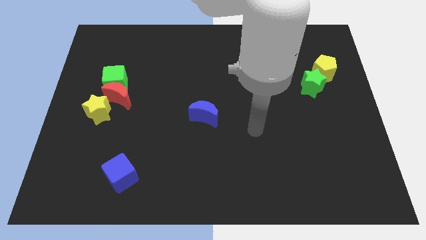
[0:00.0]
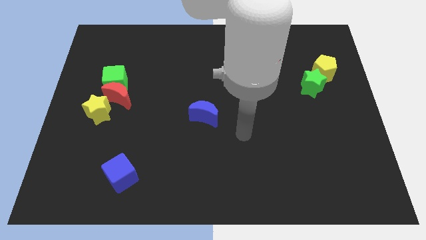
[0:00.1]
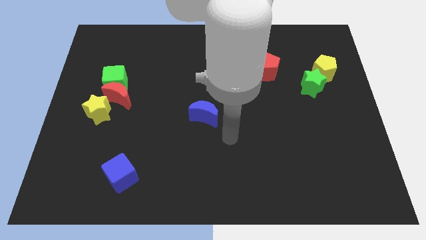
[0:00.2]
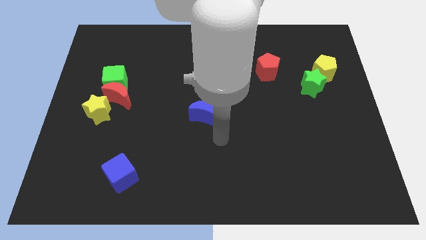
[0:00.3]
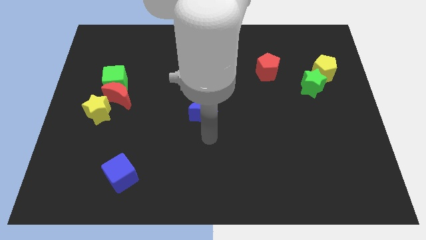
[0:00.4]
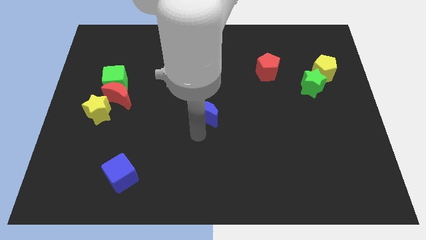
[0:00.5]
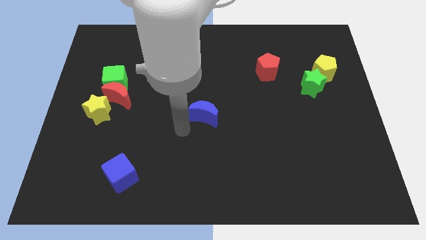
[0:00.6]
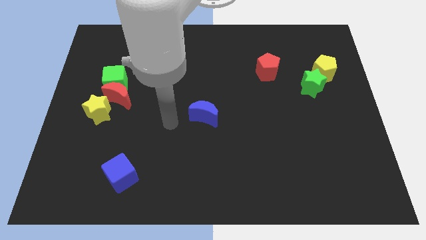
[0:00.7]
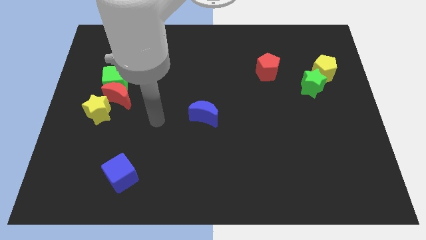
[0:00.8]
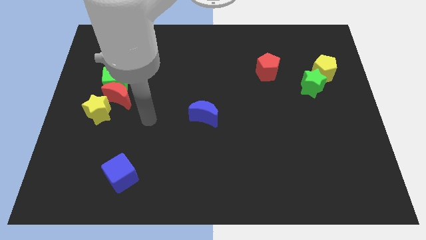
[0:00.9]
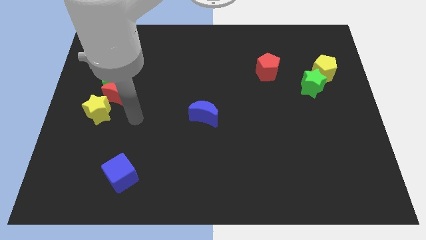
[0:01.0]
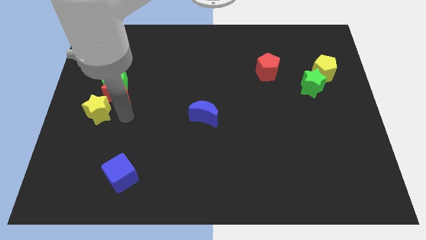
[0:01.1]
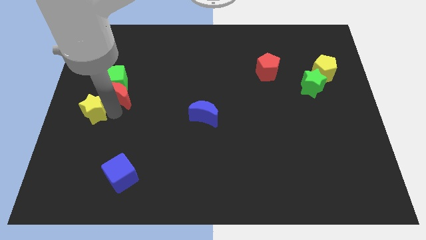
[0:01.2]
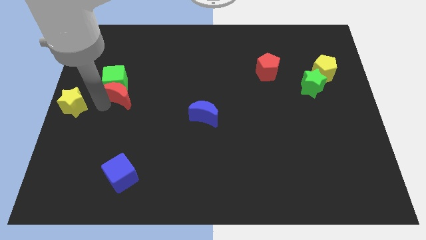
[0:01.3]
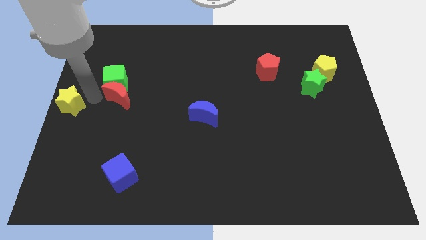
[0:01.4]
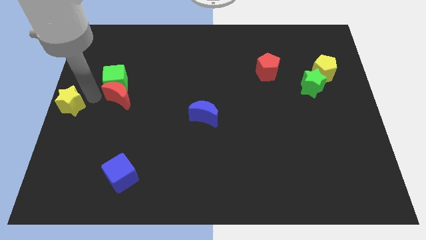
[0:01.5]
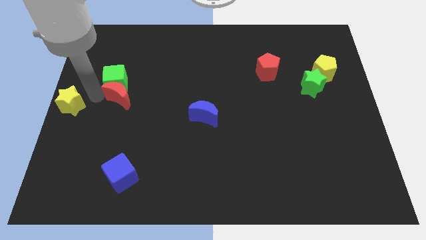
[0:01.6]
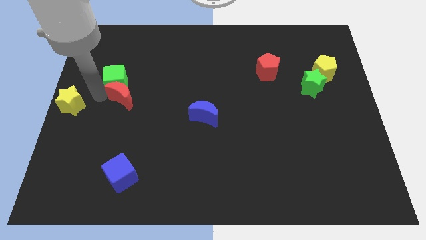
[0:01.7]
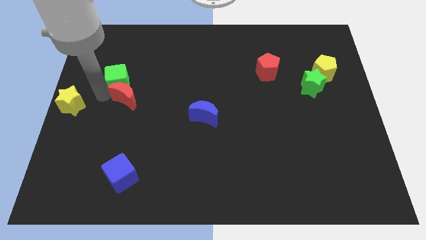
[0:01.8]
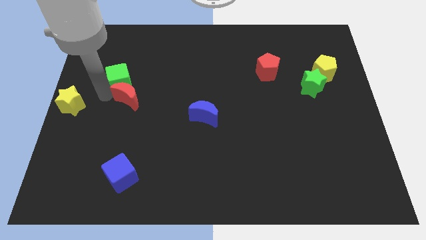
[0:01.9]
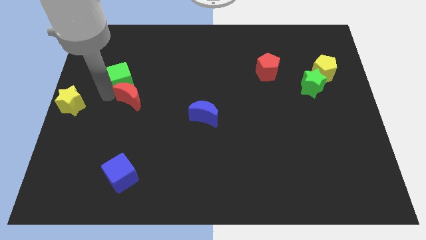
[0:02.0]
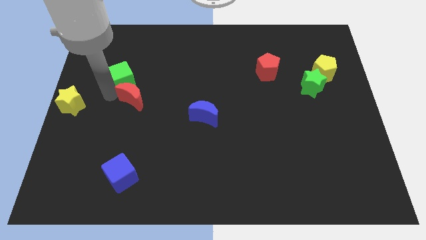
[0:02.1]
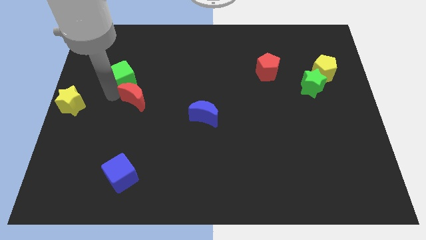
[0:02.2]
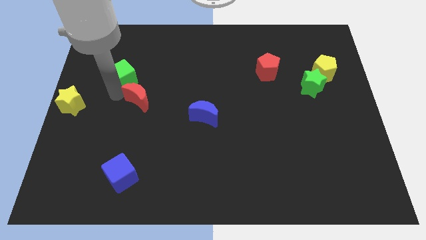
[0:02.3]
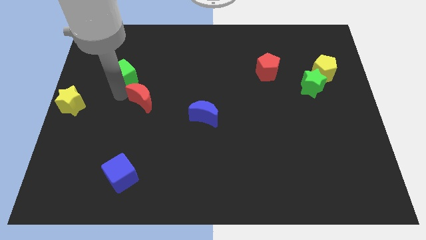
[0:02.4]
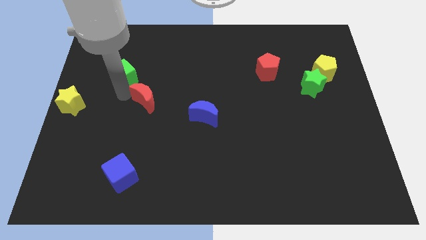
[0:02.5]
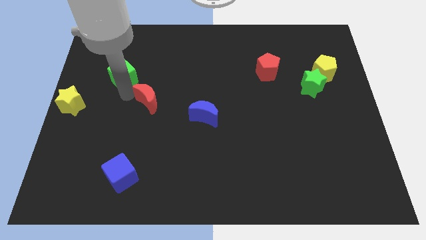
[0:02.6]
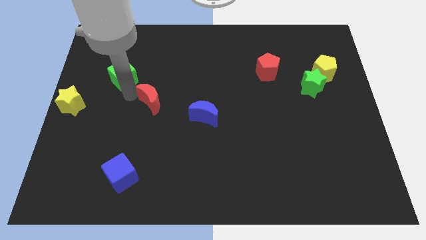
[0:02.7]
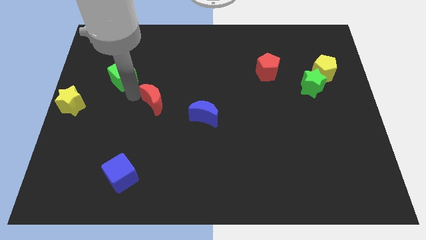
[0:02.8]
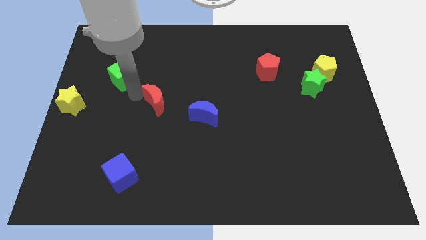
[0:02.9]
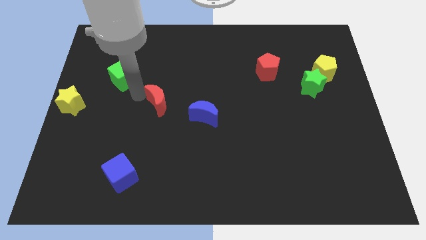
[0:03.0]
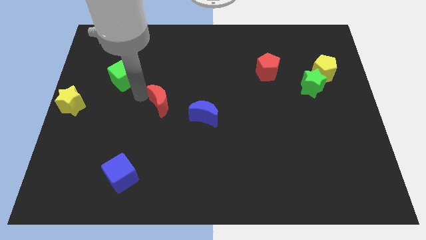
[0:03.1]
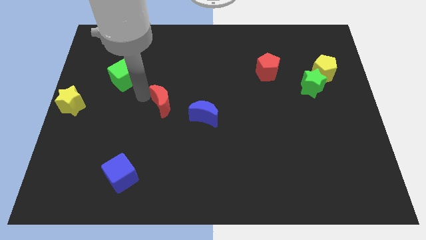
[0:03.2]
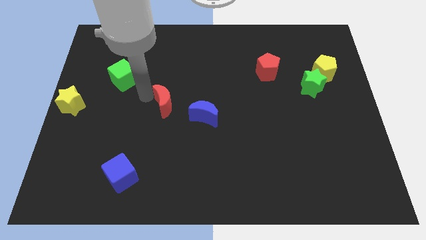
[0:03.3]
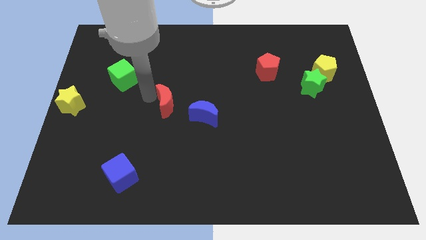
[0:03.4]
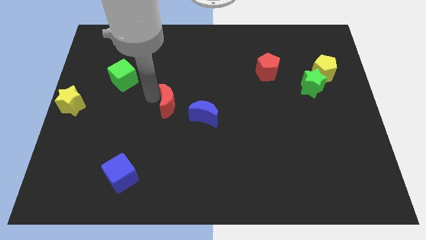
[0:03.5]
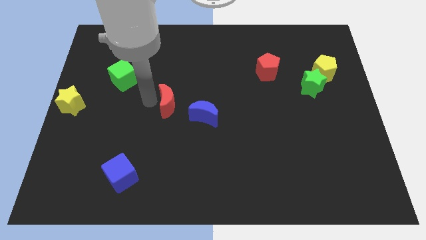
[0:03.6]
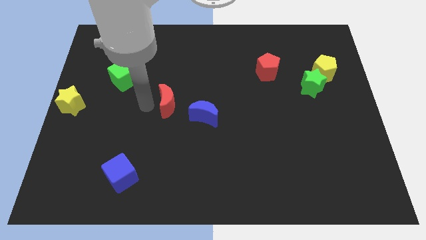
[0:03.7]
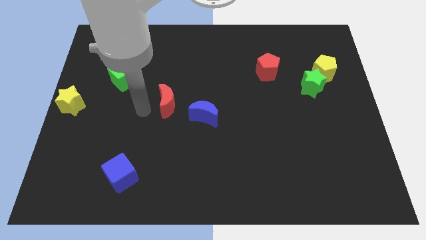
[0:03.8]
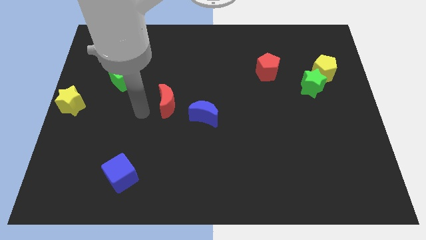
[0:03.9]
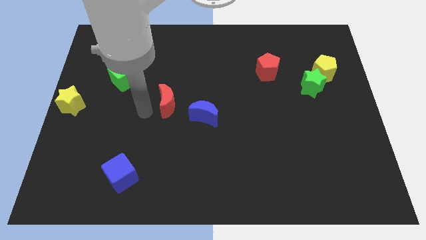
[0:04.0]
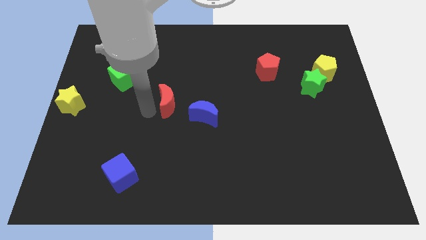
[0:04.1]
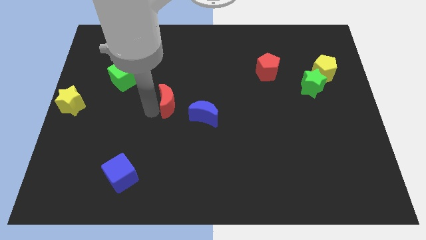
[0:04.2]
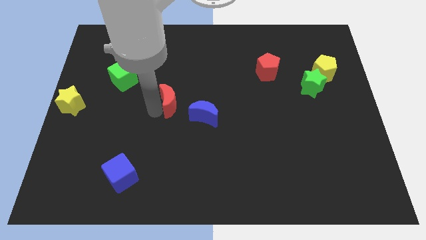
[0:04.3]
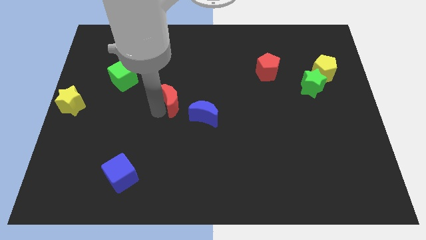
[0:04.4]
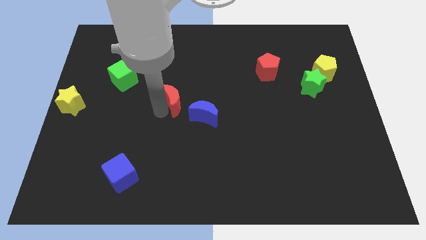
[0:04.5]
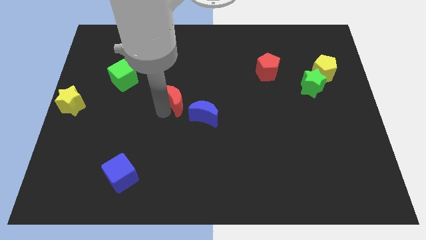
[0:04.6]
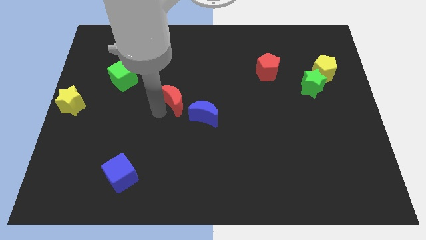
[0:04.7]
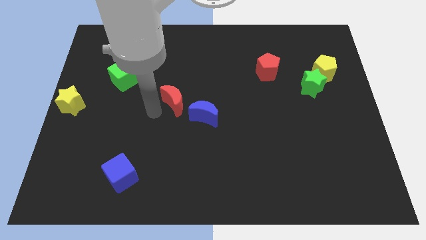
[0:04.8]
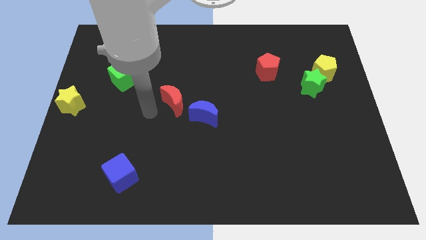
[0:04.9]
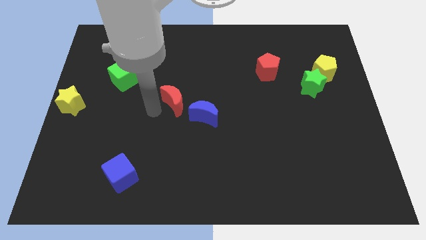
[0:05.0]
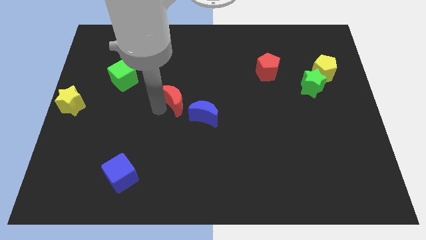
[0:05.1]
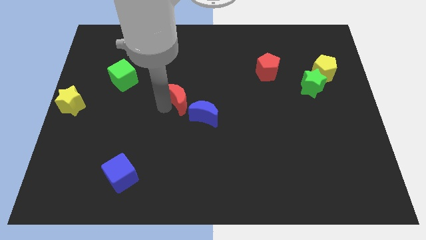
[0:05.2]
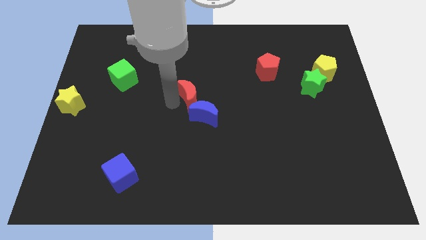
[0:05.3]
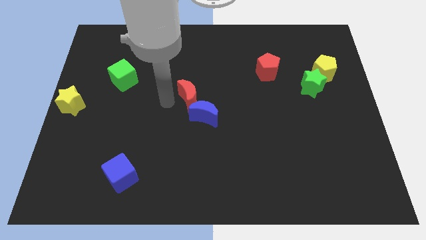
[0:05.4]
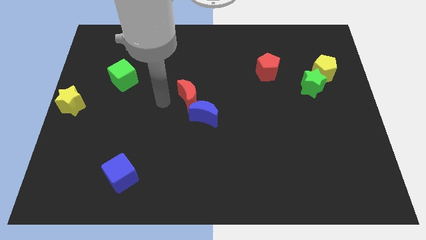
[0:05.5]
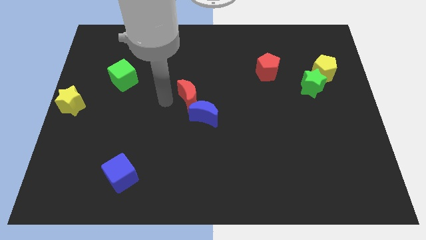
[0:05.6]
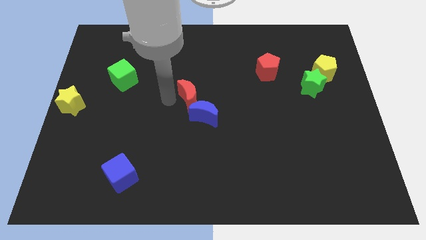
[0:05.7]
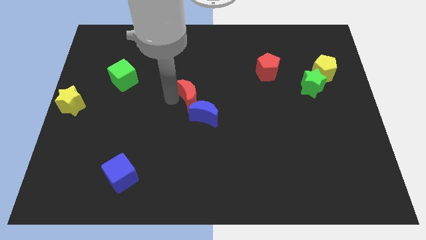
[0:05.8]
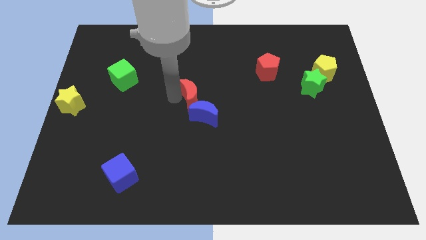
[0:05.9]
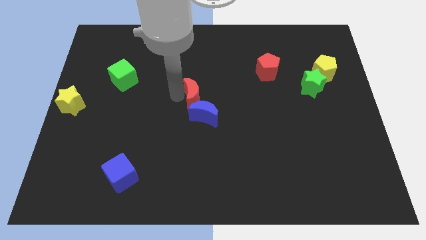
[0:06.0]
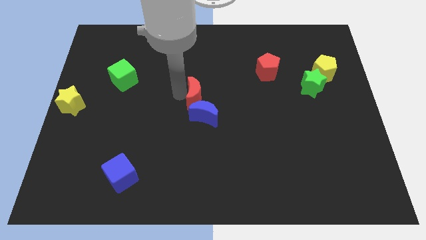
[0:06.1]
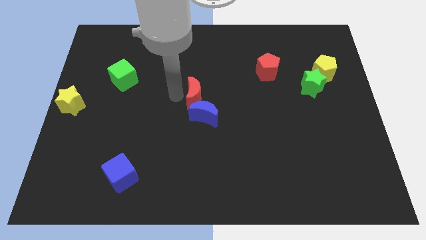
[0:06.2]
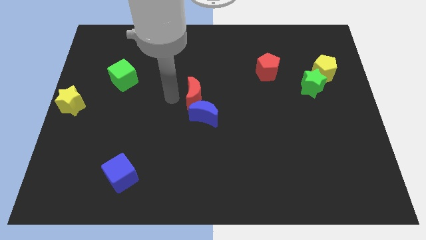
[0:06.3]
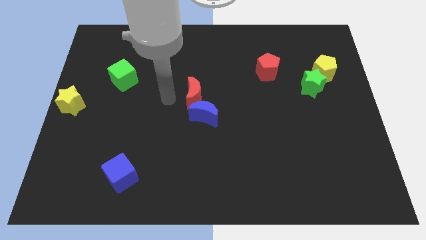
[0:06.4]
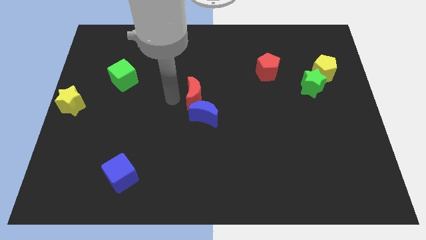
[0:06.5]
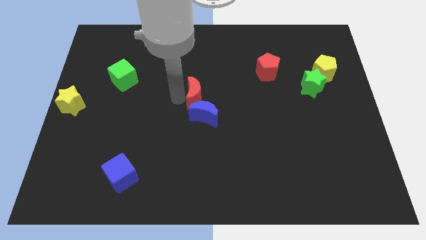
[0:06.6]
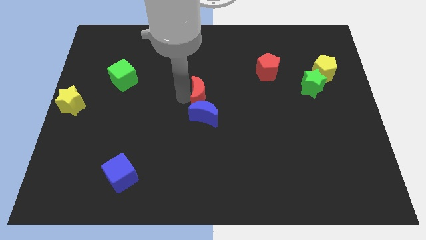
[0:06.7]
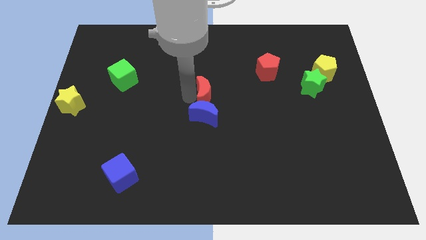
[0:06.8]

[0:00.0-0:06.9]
slide the red moon right

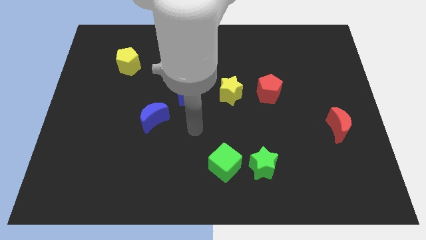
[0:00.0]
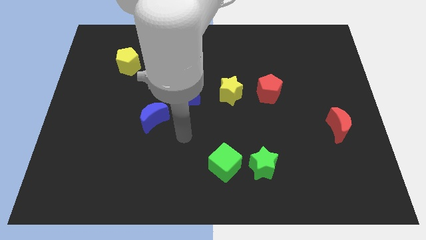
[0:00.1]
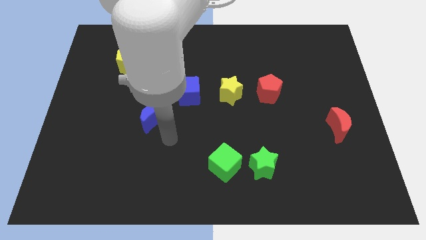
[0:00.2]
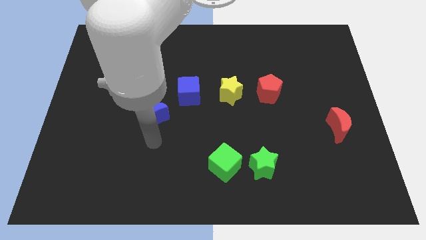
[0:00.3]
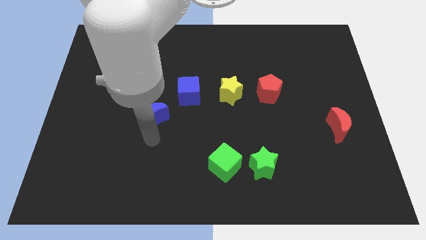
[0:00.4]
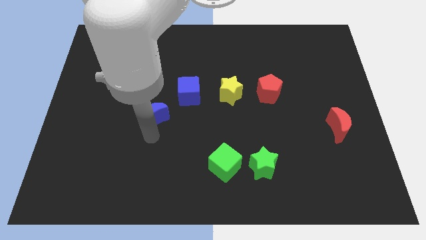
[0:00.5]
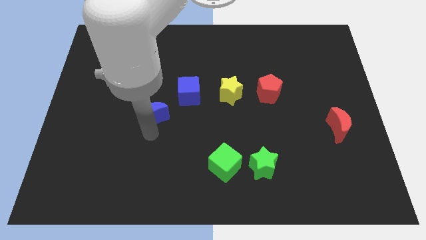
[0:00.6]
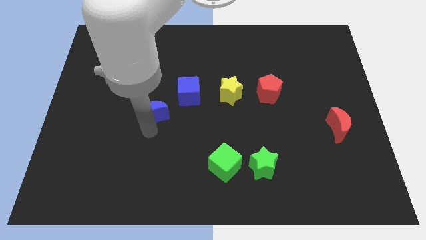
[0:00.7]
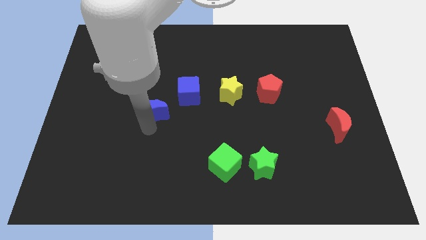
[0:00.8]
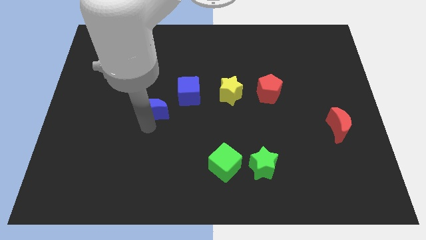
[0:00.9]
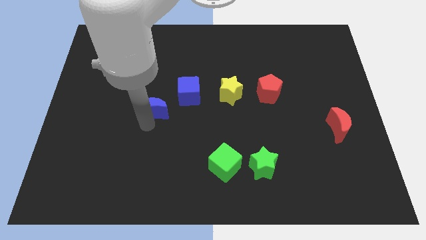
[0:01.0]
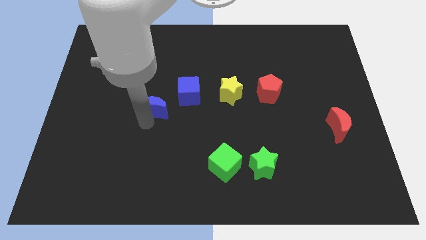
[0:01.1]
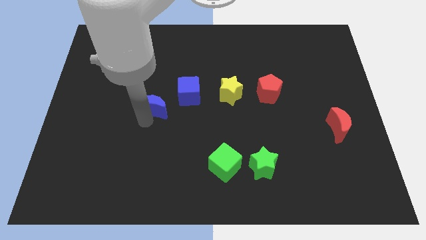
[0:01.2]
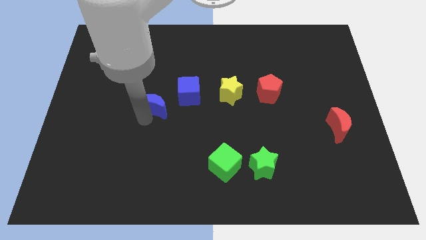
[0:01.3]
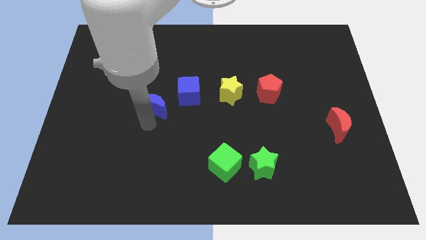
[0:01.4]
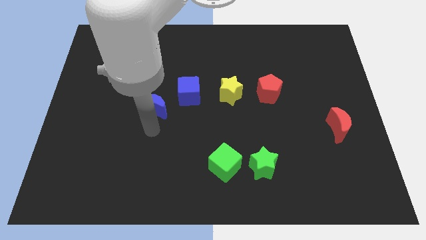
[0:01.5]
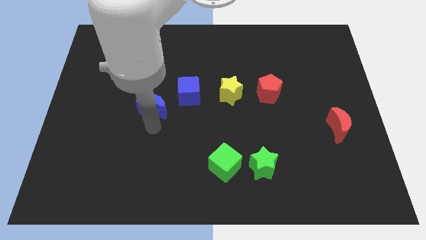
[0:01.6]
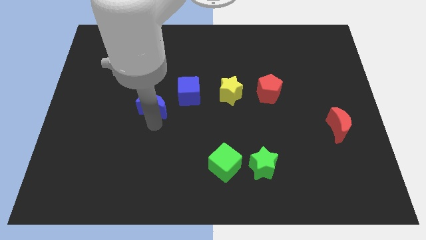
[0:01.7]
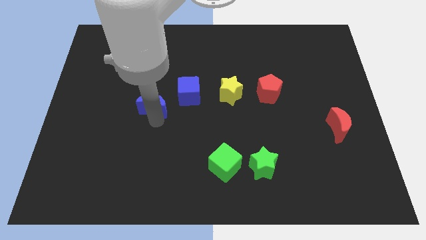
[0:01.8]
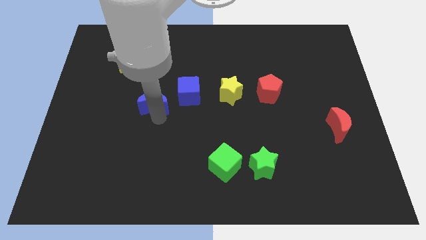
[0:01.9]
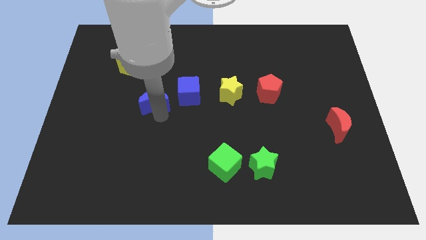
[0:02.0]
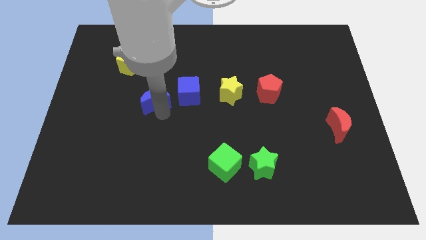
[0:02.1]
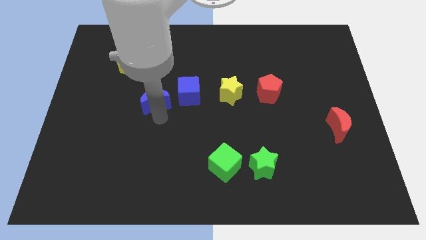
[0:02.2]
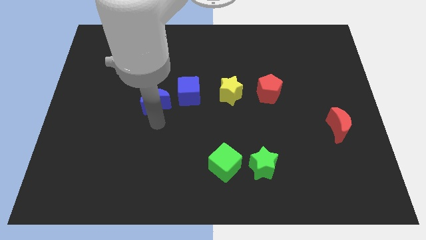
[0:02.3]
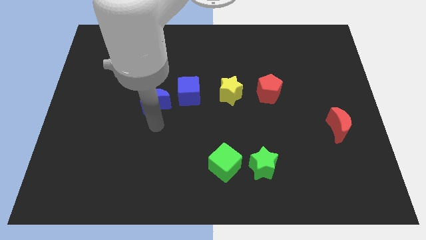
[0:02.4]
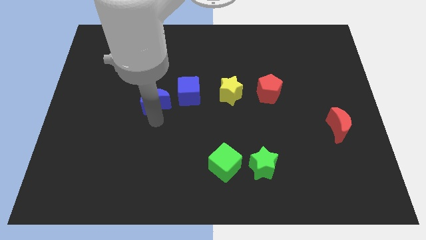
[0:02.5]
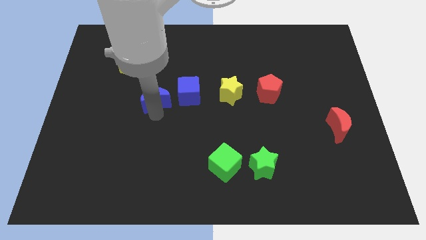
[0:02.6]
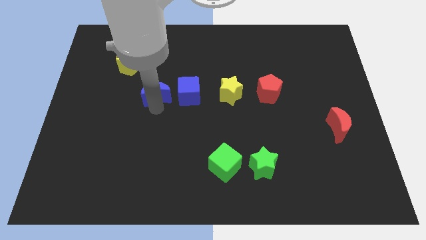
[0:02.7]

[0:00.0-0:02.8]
slightly slide the blue moon upwards
